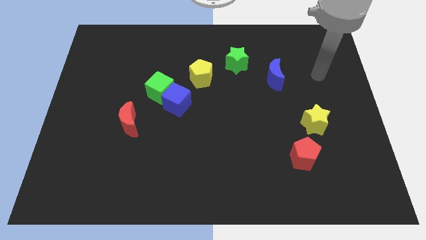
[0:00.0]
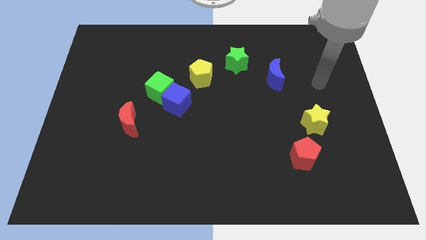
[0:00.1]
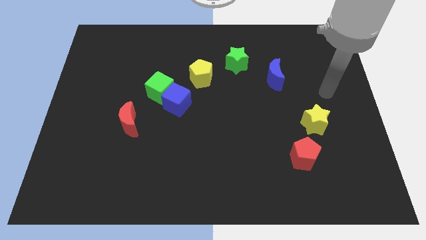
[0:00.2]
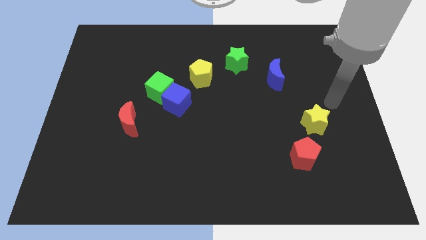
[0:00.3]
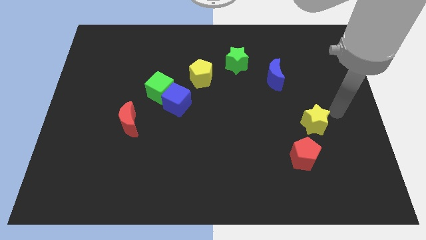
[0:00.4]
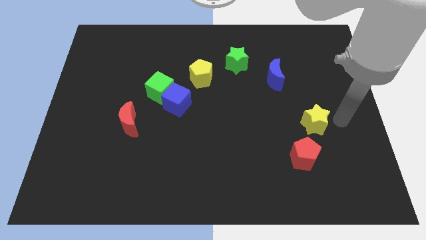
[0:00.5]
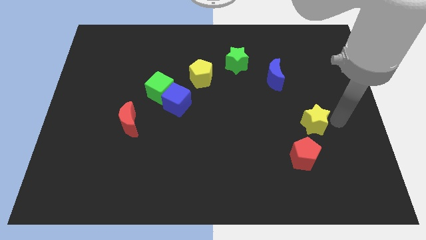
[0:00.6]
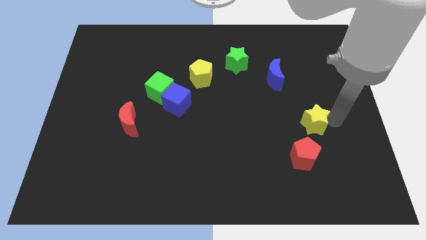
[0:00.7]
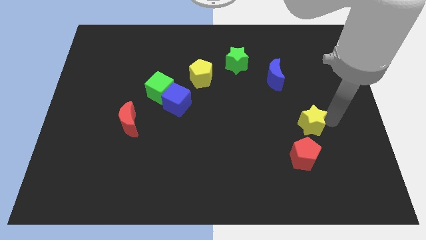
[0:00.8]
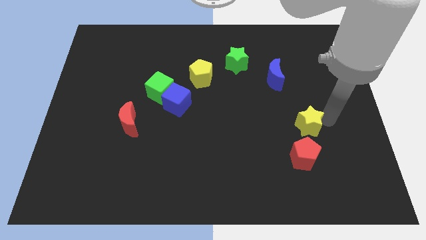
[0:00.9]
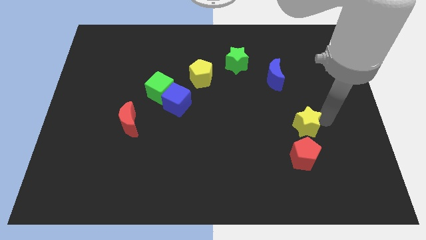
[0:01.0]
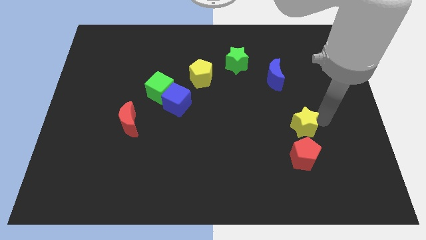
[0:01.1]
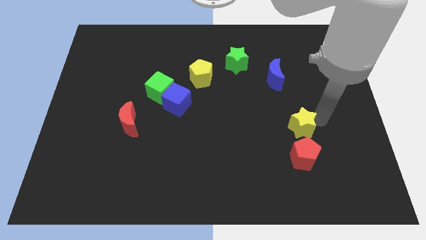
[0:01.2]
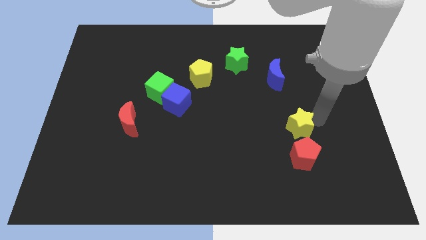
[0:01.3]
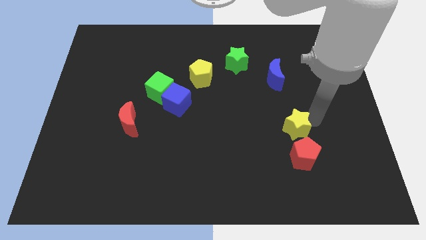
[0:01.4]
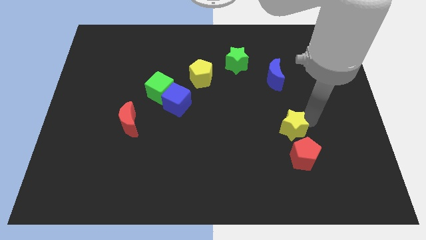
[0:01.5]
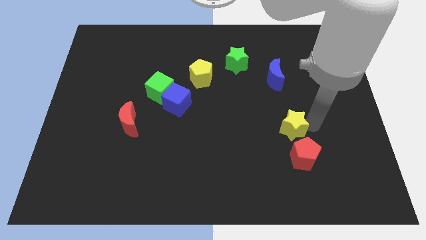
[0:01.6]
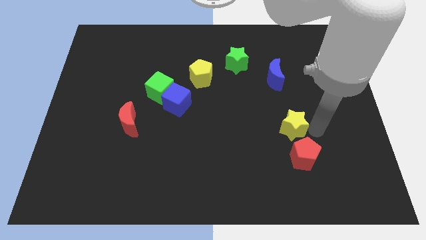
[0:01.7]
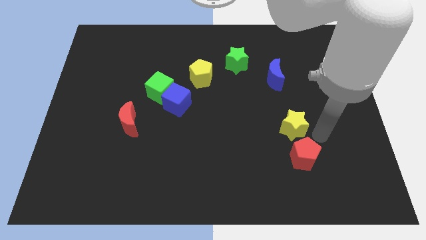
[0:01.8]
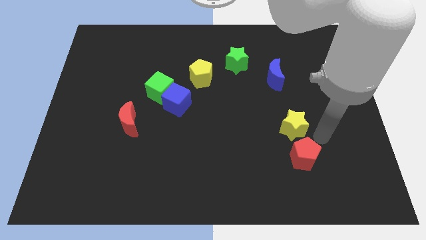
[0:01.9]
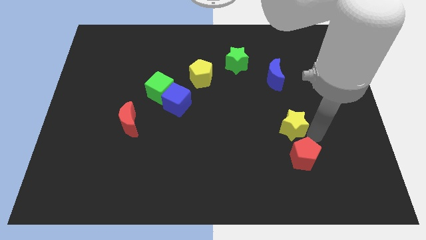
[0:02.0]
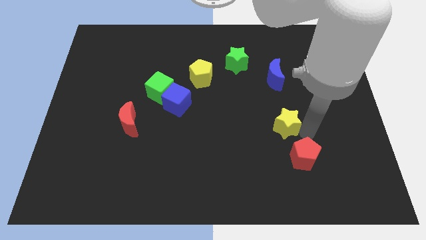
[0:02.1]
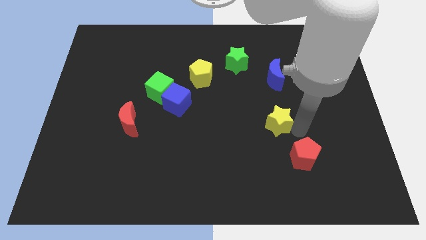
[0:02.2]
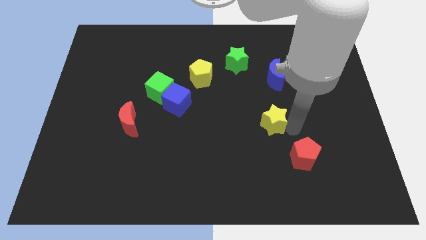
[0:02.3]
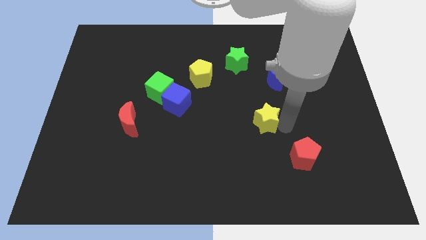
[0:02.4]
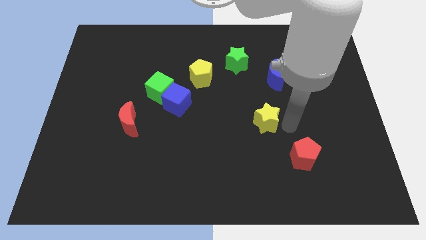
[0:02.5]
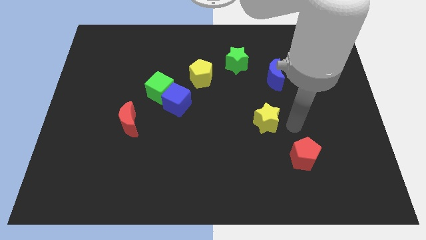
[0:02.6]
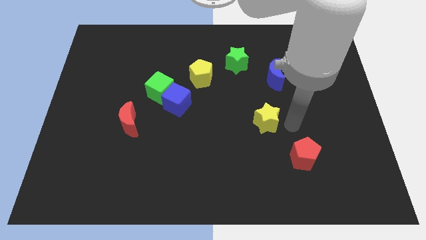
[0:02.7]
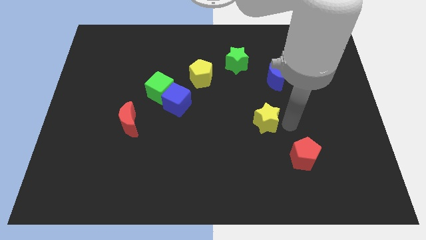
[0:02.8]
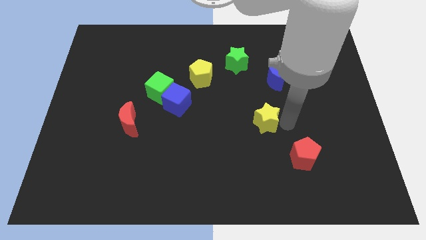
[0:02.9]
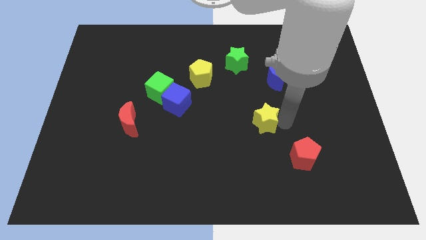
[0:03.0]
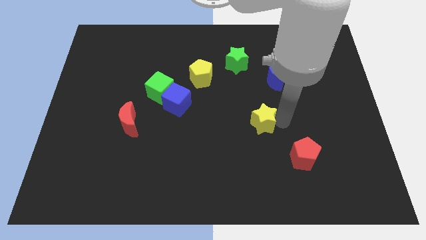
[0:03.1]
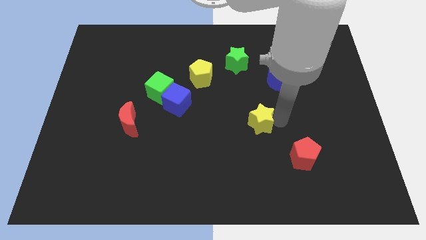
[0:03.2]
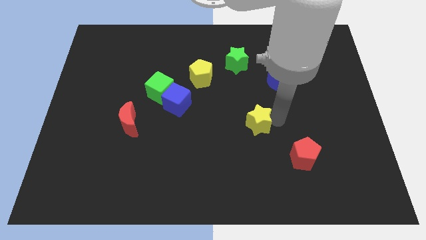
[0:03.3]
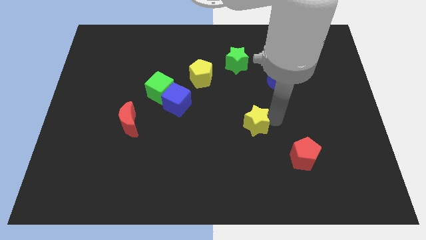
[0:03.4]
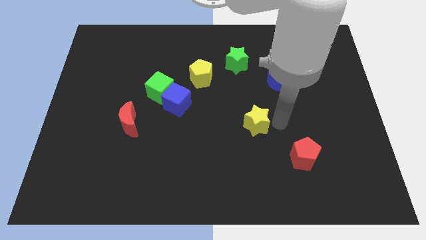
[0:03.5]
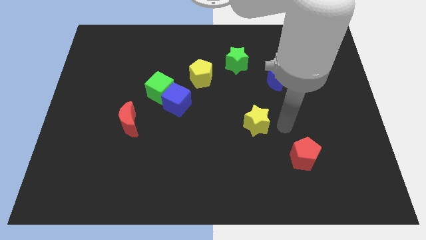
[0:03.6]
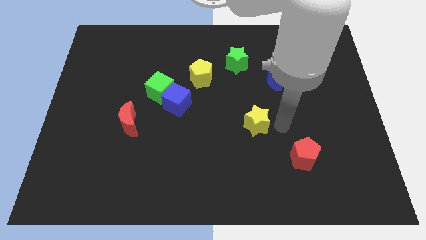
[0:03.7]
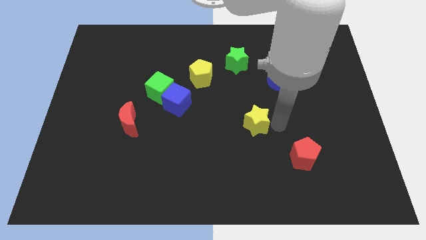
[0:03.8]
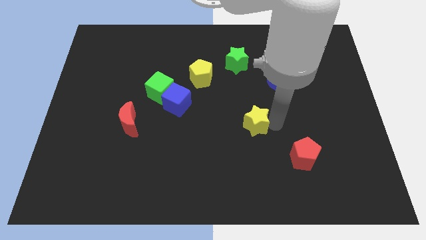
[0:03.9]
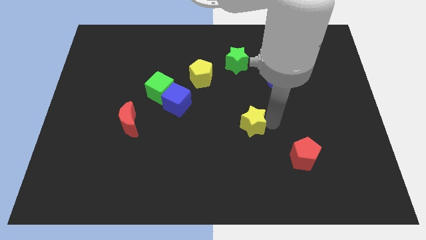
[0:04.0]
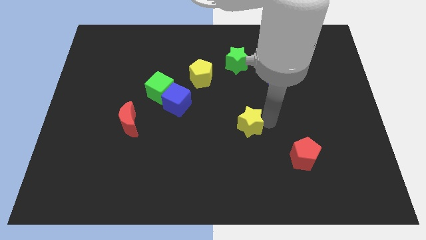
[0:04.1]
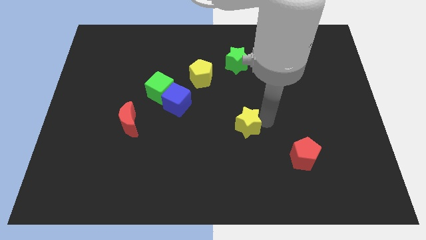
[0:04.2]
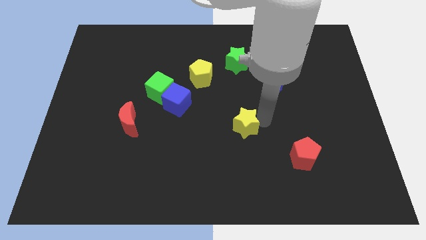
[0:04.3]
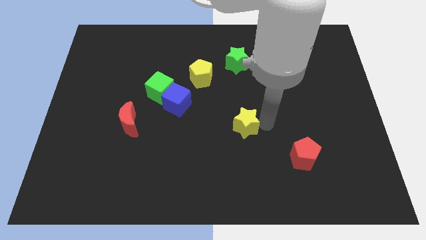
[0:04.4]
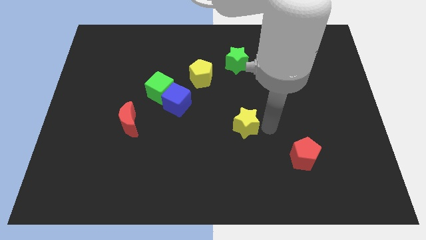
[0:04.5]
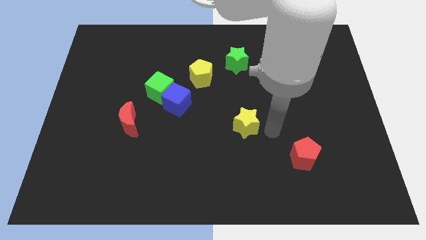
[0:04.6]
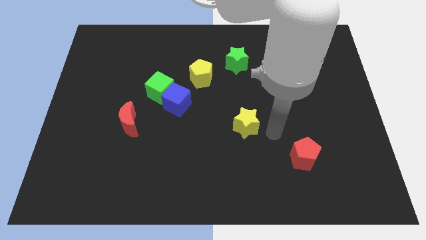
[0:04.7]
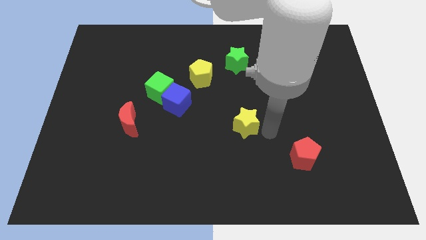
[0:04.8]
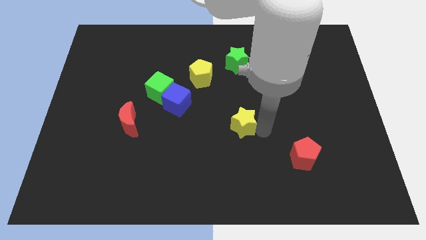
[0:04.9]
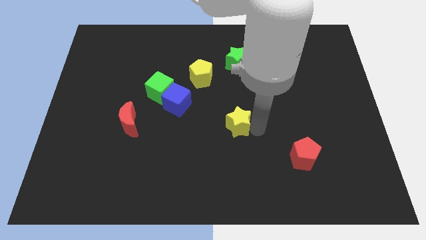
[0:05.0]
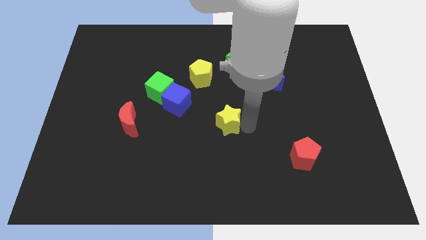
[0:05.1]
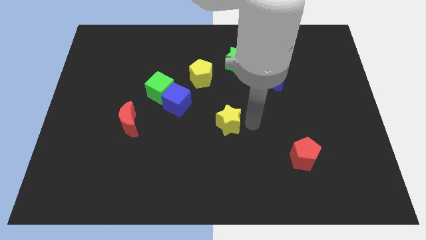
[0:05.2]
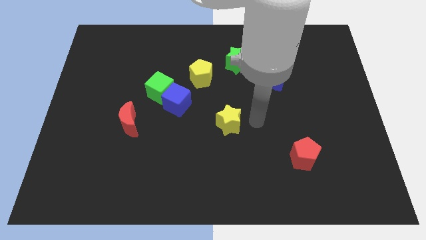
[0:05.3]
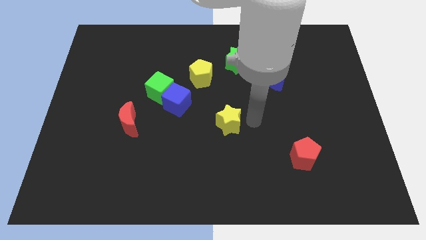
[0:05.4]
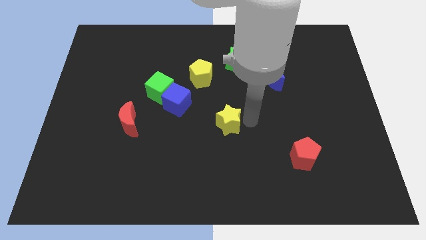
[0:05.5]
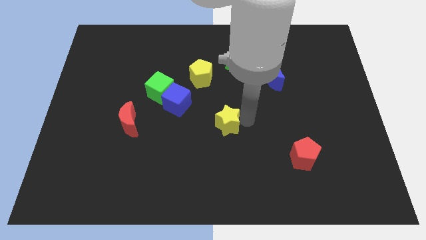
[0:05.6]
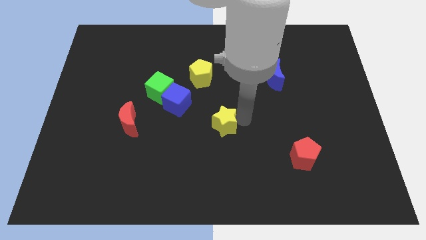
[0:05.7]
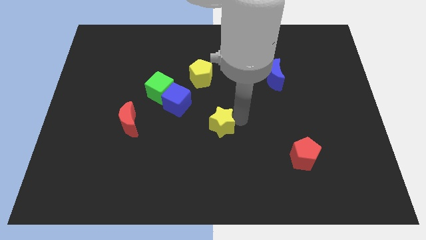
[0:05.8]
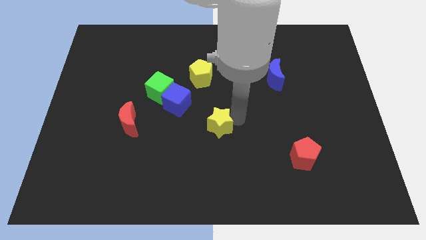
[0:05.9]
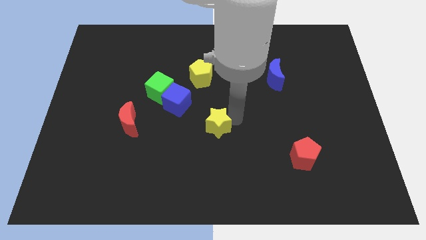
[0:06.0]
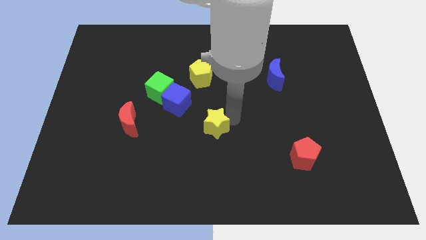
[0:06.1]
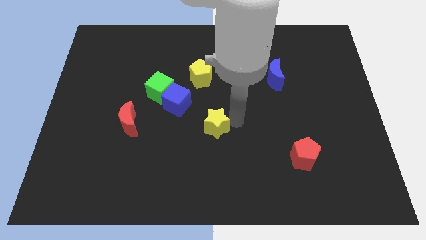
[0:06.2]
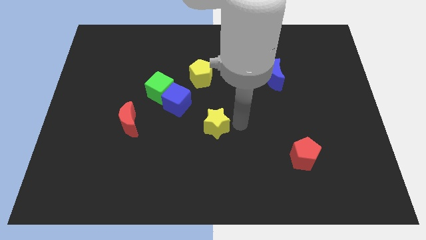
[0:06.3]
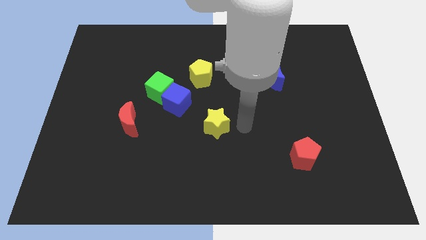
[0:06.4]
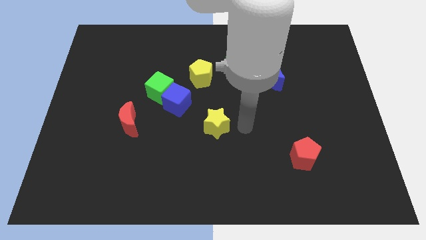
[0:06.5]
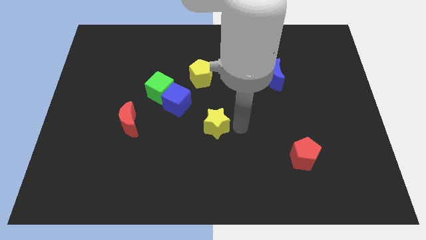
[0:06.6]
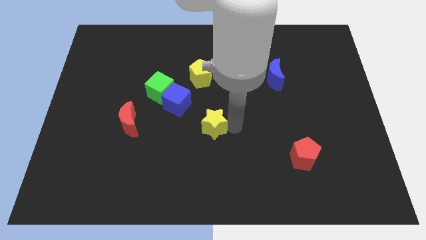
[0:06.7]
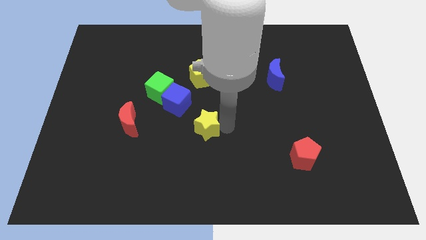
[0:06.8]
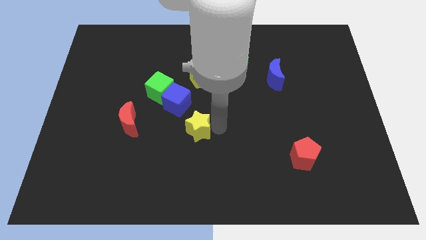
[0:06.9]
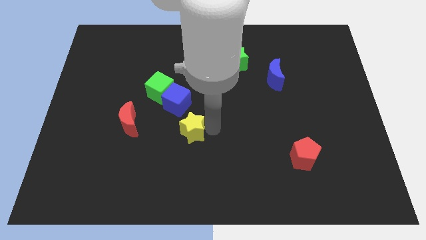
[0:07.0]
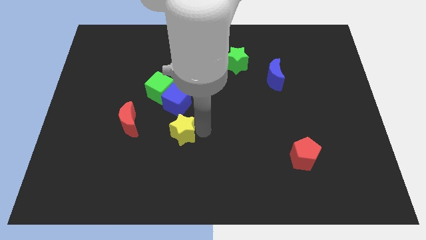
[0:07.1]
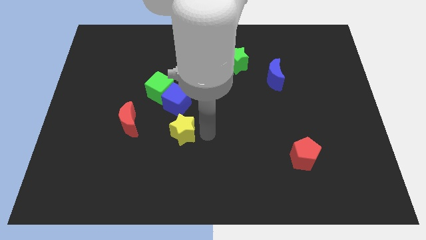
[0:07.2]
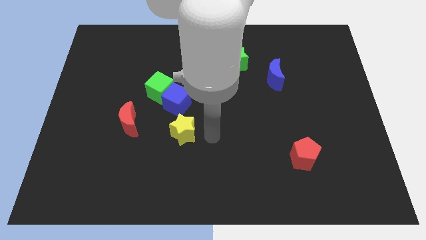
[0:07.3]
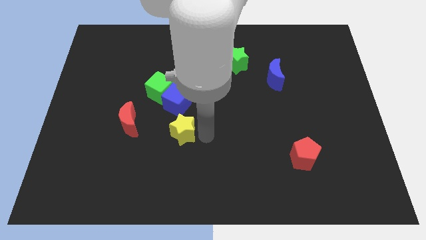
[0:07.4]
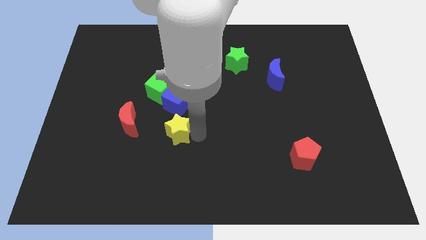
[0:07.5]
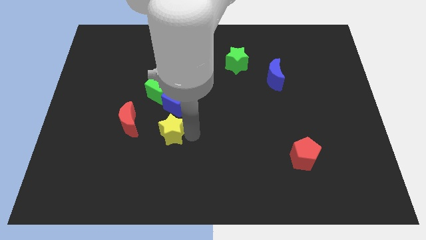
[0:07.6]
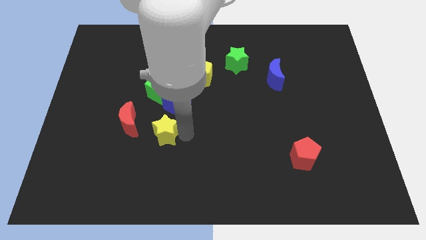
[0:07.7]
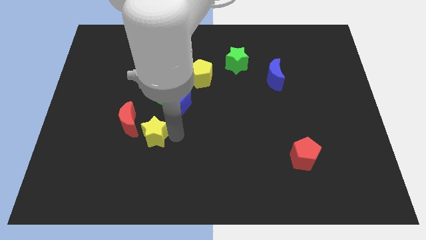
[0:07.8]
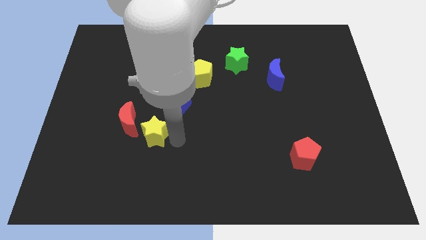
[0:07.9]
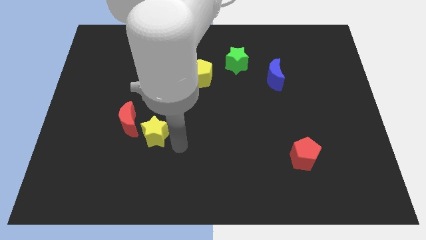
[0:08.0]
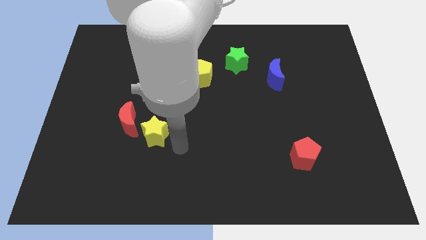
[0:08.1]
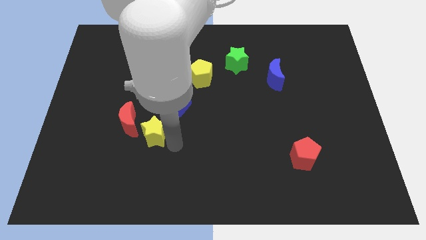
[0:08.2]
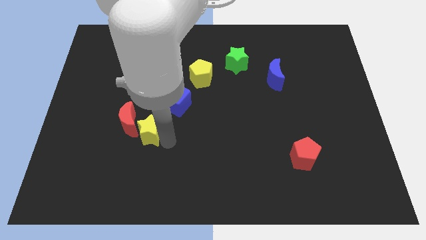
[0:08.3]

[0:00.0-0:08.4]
push the yellow star to the red moon
